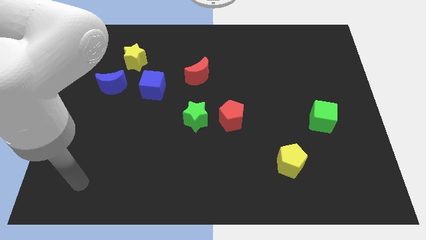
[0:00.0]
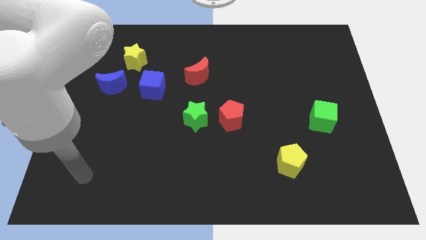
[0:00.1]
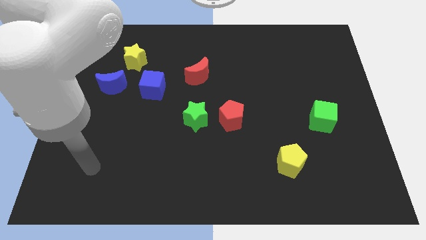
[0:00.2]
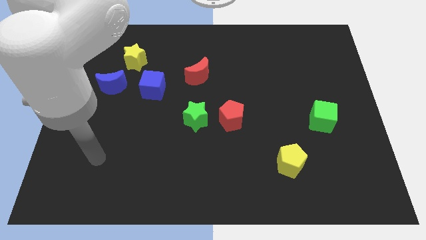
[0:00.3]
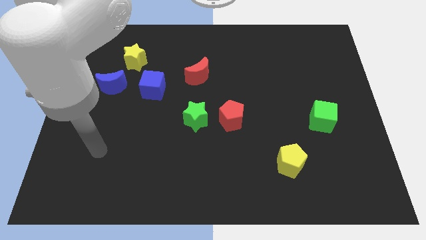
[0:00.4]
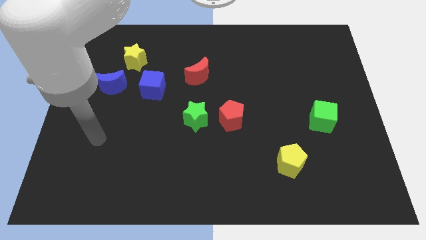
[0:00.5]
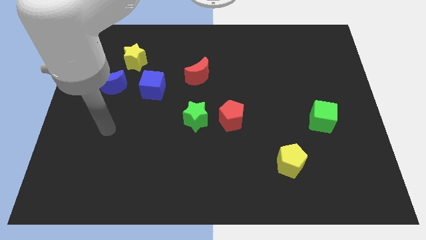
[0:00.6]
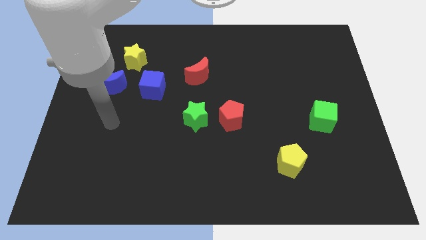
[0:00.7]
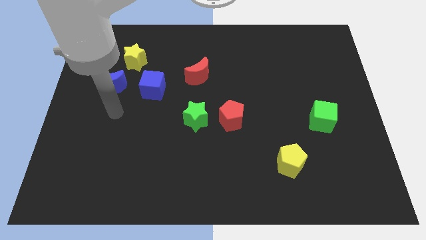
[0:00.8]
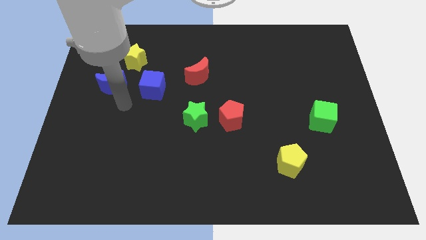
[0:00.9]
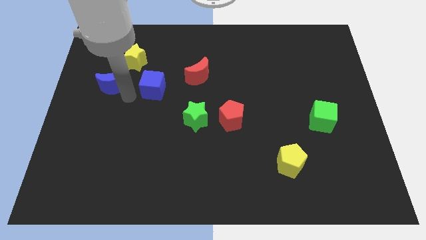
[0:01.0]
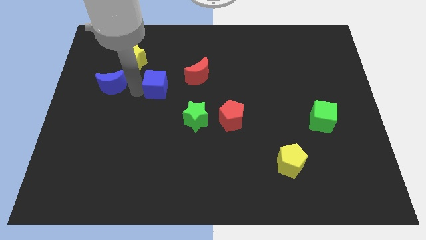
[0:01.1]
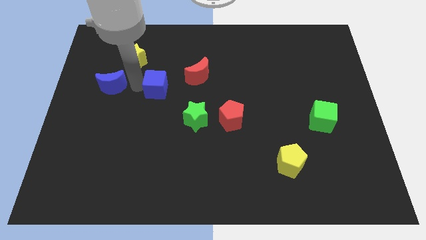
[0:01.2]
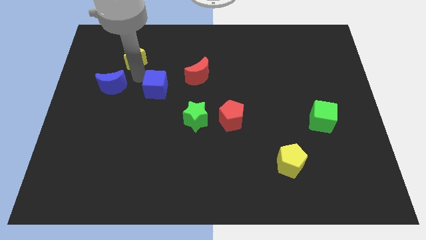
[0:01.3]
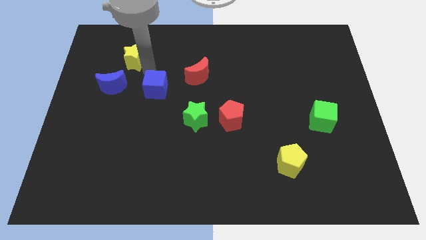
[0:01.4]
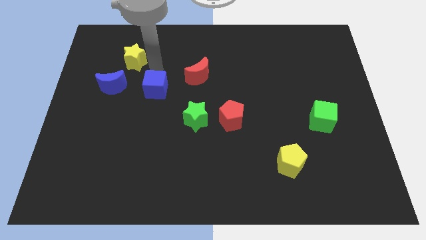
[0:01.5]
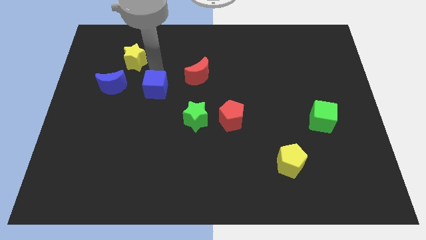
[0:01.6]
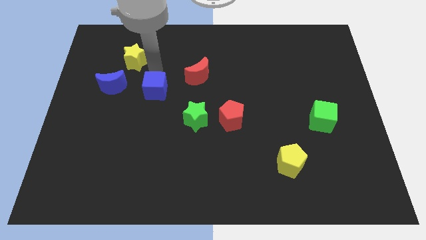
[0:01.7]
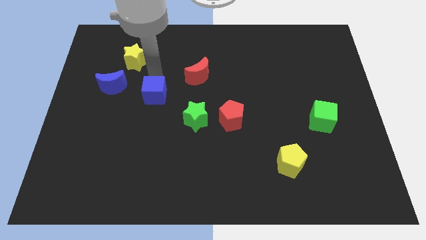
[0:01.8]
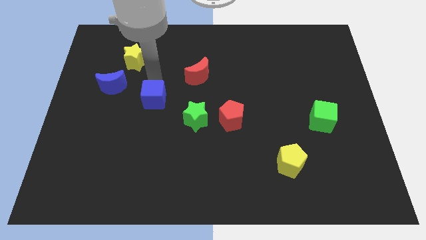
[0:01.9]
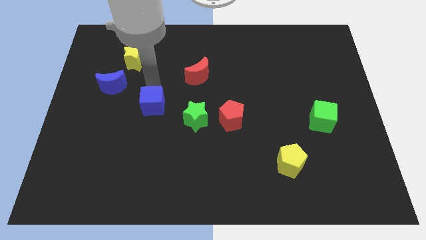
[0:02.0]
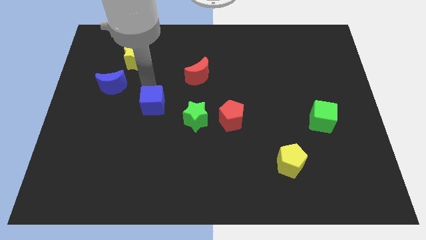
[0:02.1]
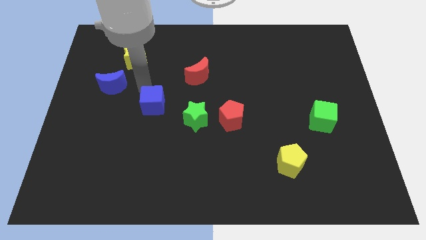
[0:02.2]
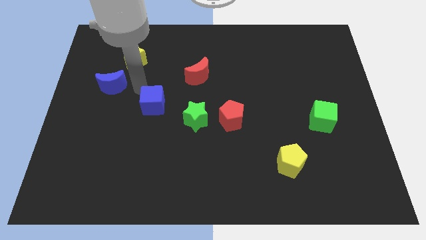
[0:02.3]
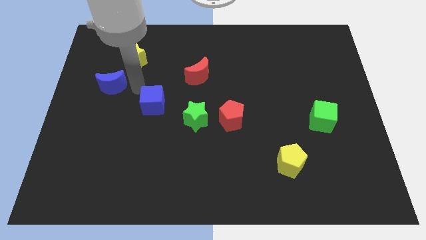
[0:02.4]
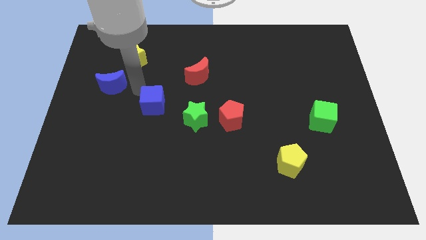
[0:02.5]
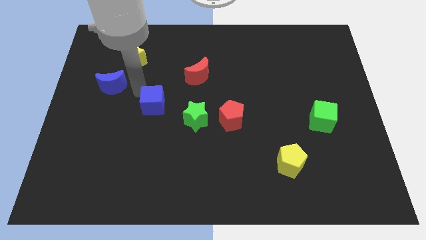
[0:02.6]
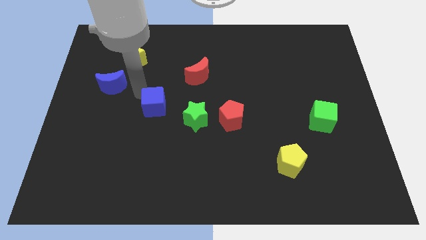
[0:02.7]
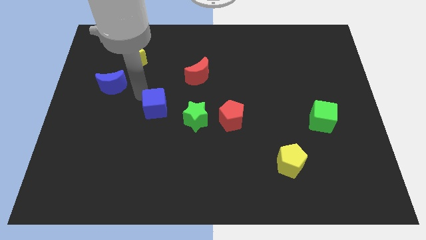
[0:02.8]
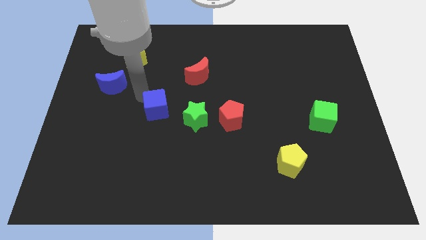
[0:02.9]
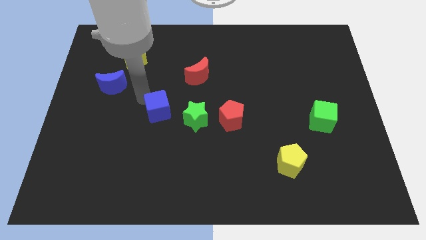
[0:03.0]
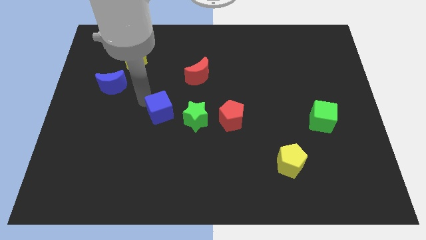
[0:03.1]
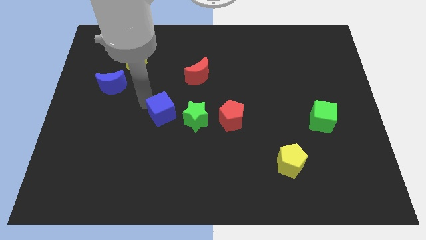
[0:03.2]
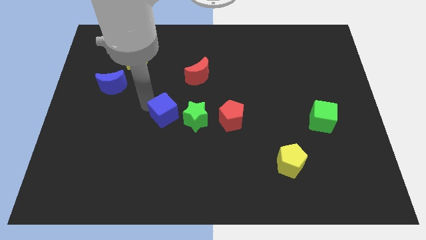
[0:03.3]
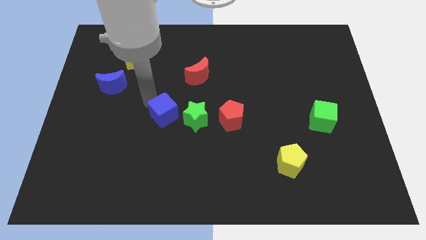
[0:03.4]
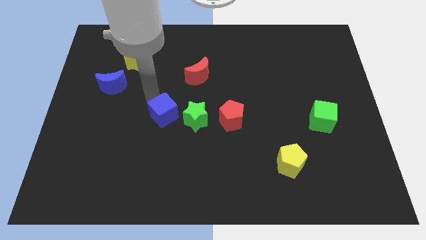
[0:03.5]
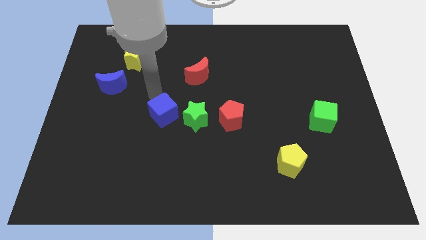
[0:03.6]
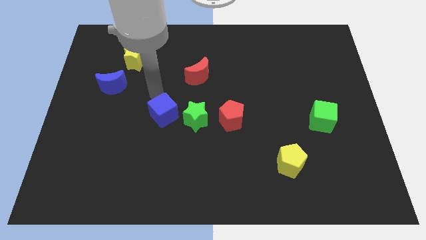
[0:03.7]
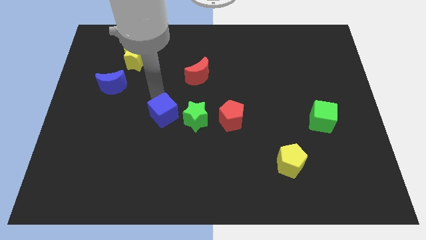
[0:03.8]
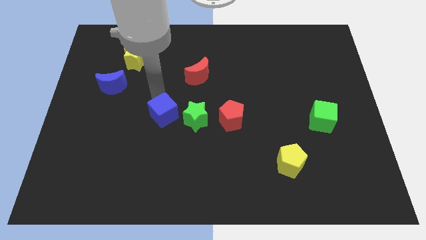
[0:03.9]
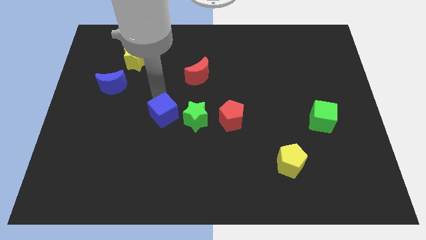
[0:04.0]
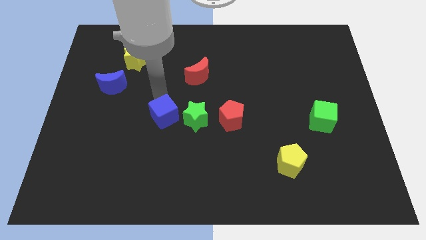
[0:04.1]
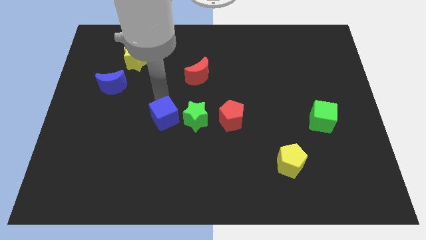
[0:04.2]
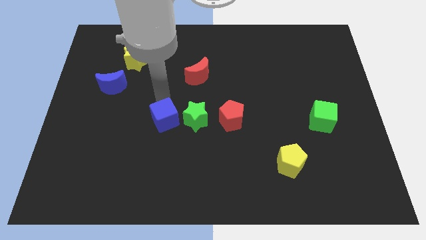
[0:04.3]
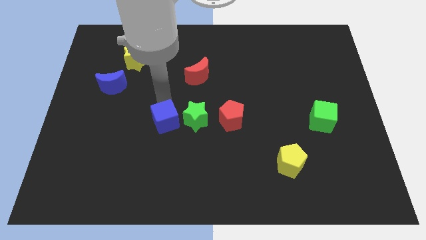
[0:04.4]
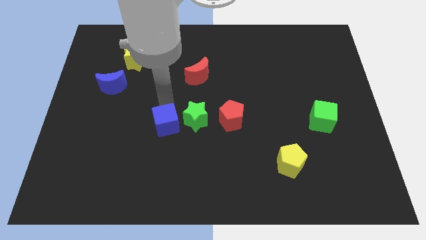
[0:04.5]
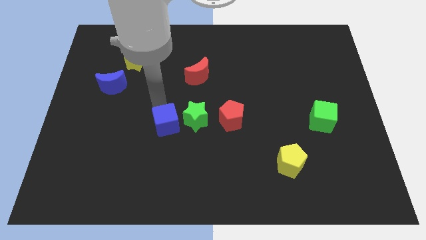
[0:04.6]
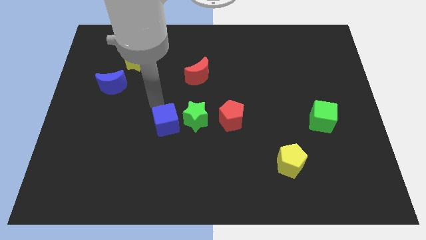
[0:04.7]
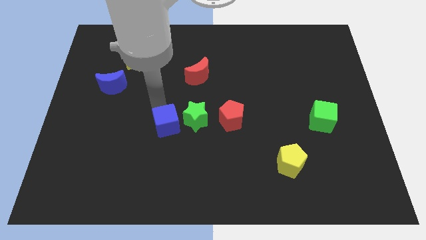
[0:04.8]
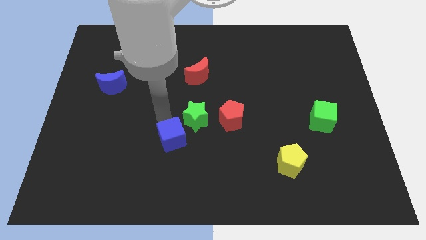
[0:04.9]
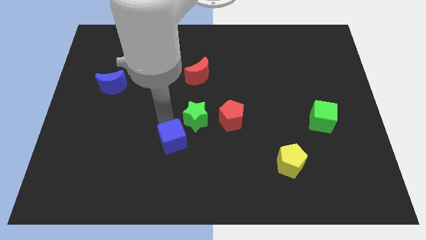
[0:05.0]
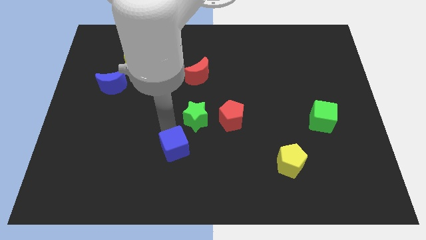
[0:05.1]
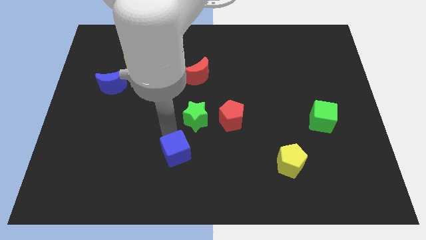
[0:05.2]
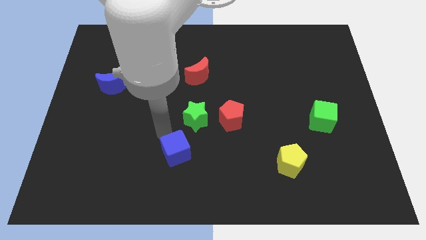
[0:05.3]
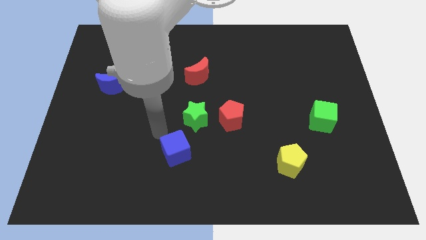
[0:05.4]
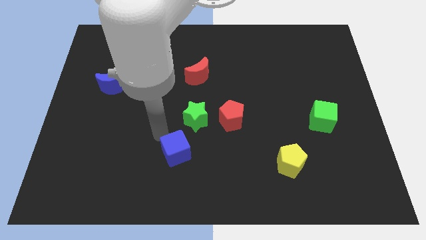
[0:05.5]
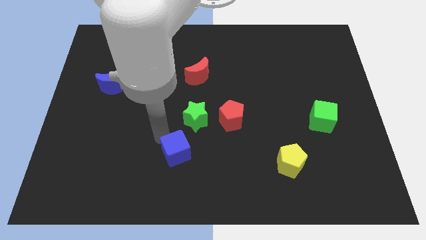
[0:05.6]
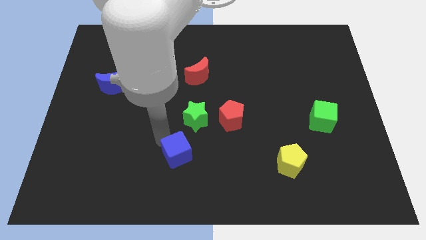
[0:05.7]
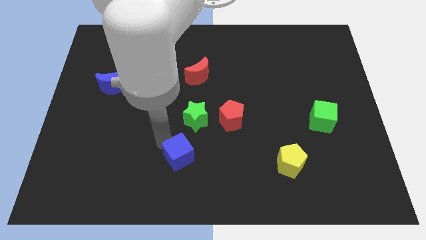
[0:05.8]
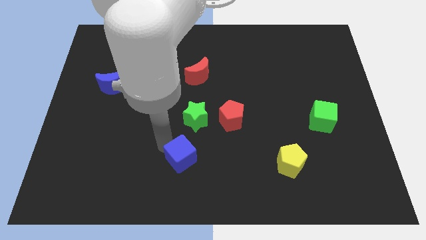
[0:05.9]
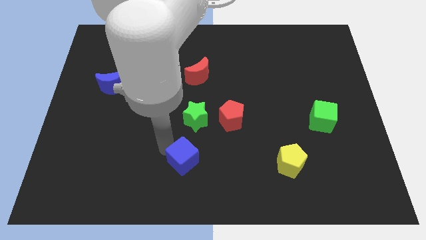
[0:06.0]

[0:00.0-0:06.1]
slide the blue cube to the bottom side

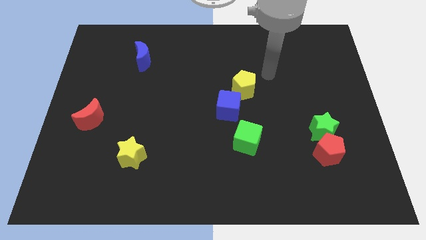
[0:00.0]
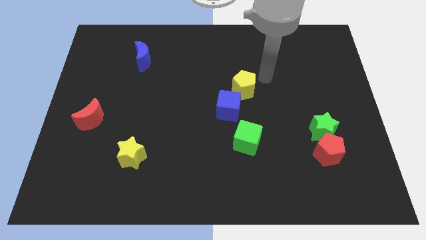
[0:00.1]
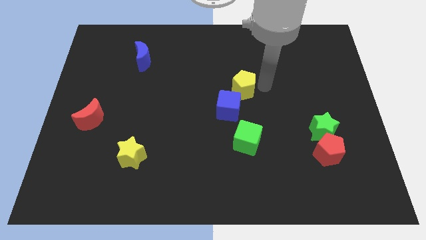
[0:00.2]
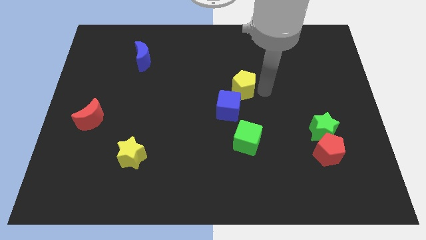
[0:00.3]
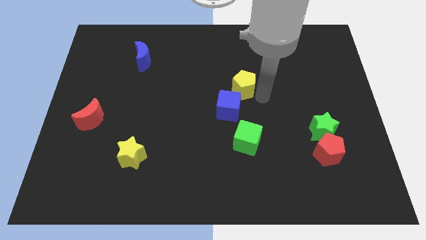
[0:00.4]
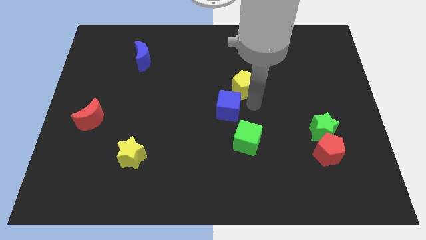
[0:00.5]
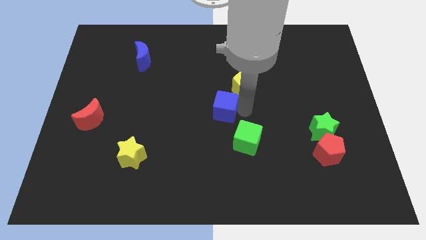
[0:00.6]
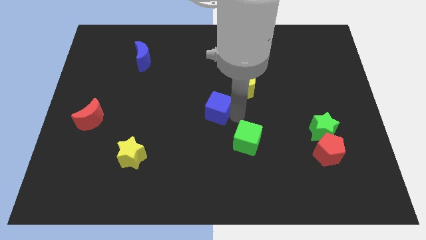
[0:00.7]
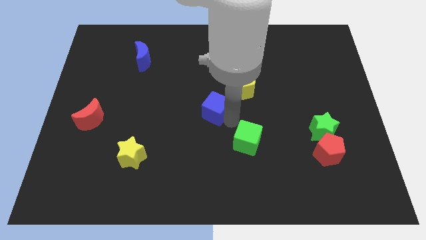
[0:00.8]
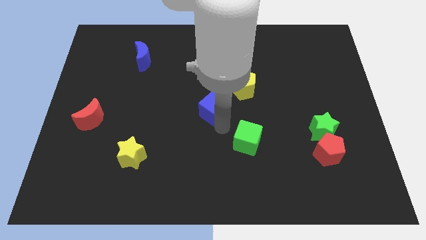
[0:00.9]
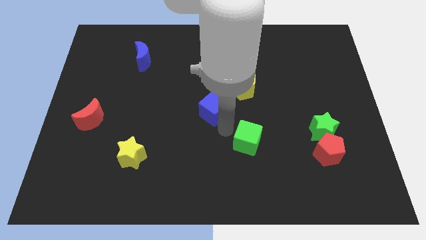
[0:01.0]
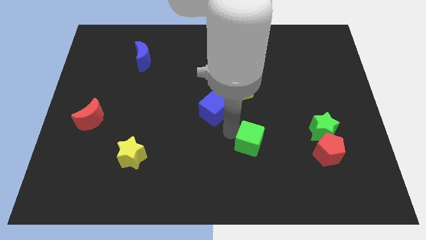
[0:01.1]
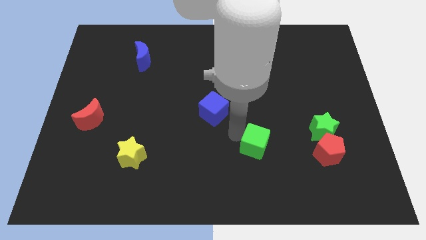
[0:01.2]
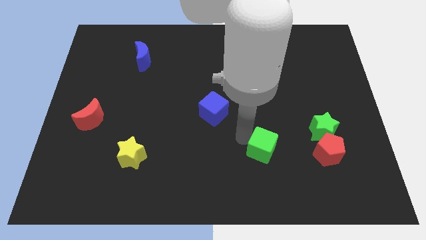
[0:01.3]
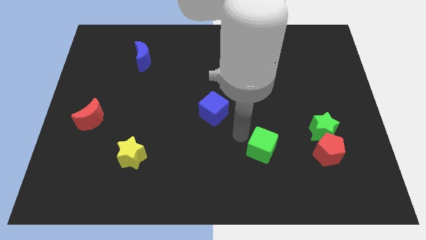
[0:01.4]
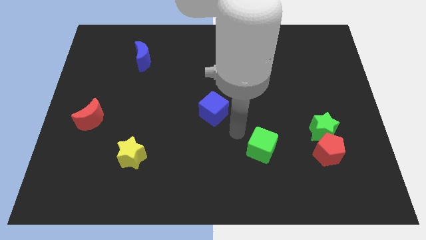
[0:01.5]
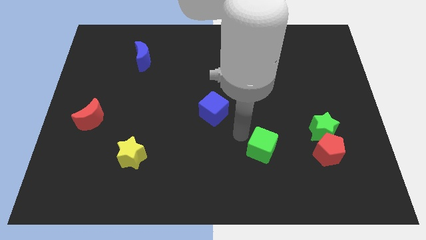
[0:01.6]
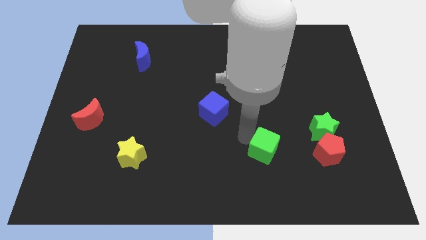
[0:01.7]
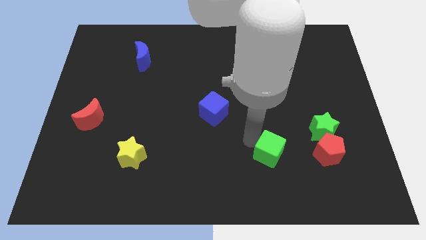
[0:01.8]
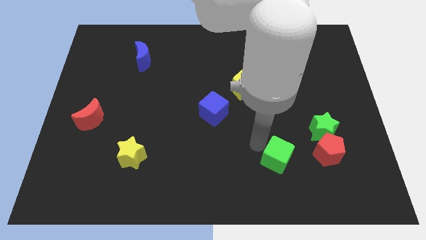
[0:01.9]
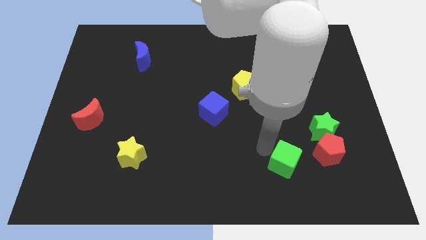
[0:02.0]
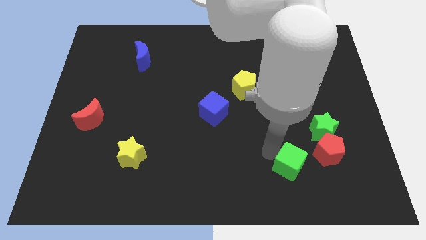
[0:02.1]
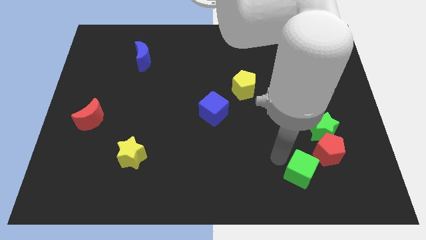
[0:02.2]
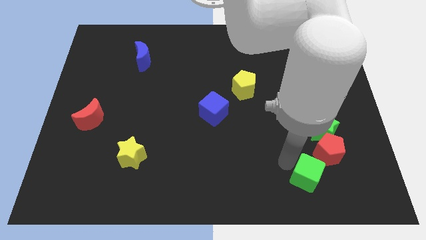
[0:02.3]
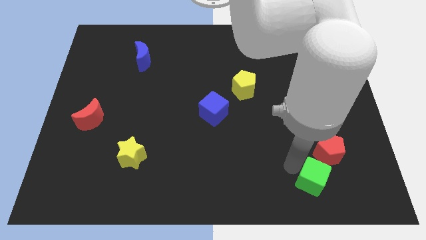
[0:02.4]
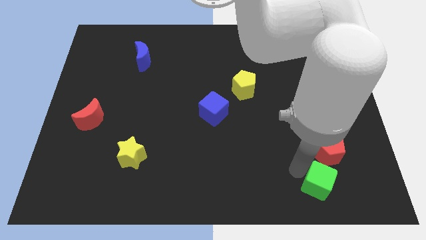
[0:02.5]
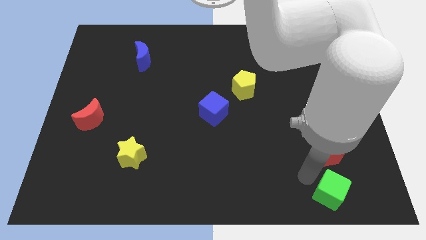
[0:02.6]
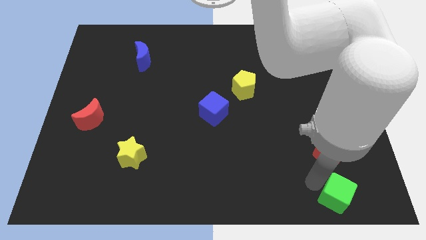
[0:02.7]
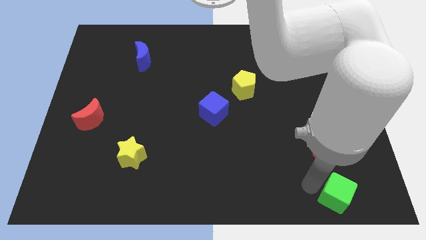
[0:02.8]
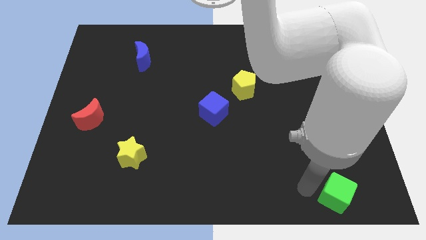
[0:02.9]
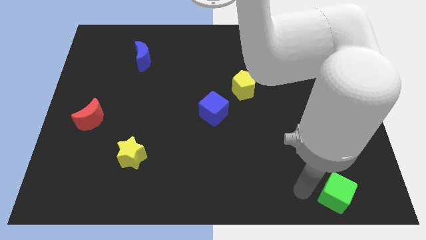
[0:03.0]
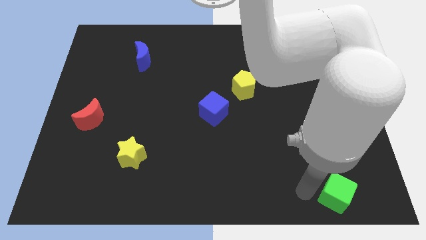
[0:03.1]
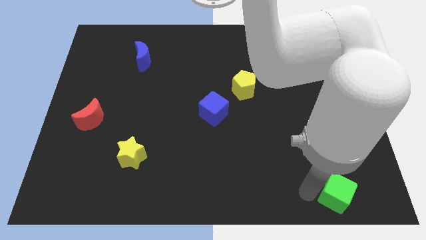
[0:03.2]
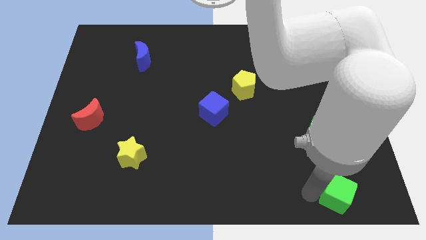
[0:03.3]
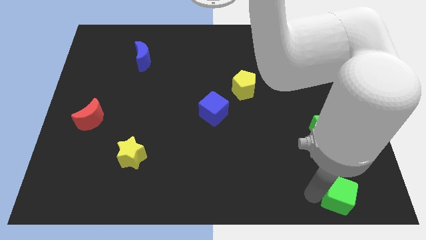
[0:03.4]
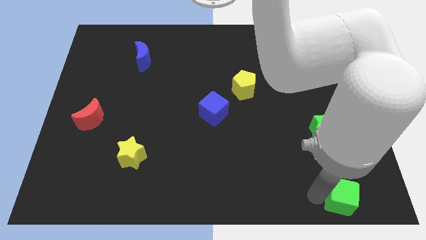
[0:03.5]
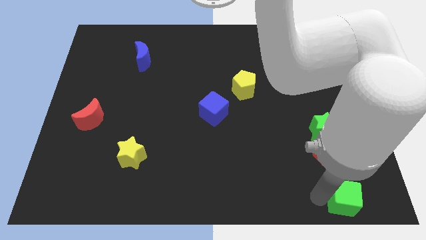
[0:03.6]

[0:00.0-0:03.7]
move the green cube to the bottom right corner
